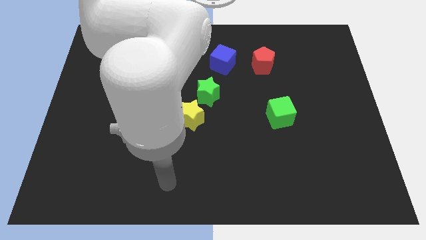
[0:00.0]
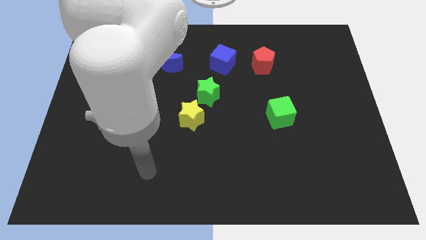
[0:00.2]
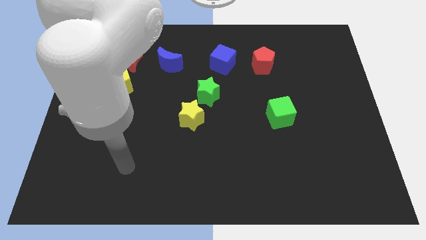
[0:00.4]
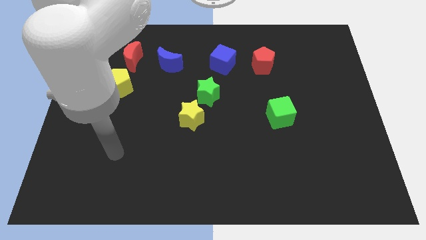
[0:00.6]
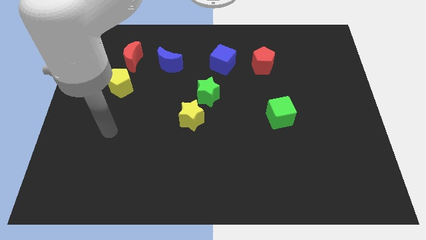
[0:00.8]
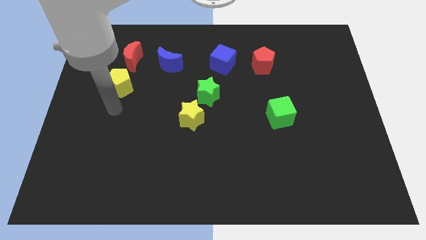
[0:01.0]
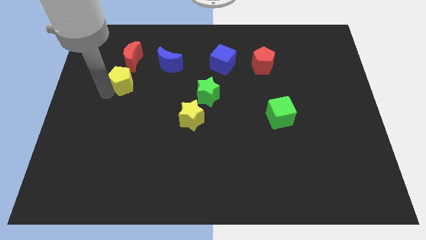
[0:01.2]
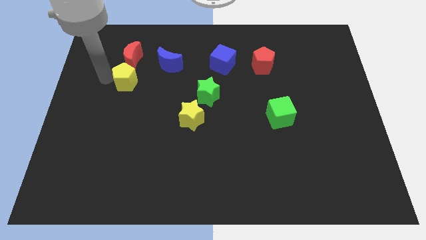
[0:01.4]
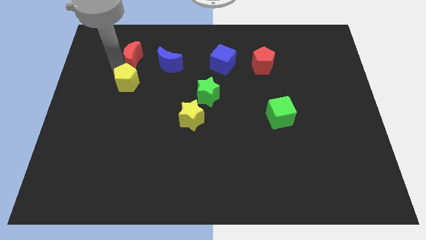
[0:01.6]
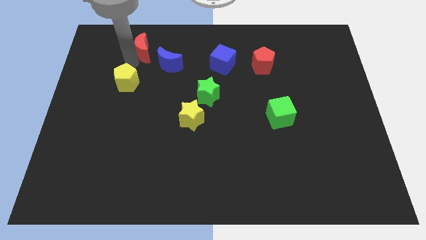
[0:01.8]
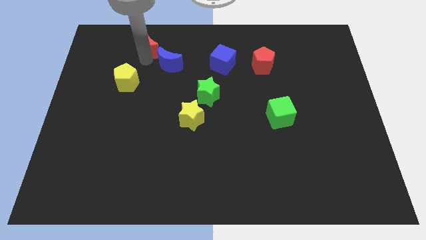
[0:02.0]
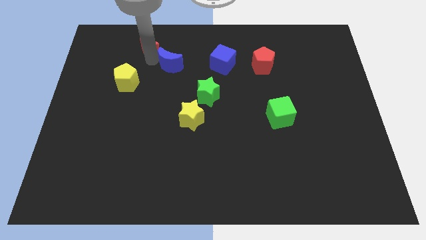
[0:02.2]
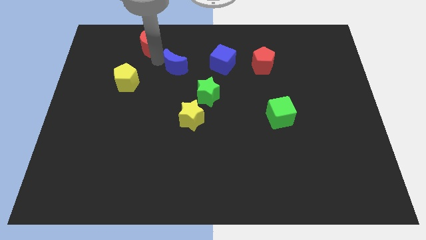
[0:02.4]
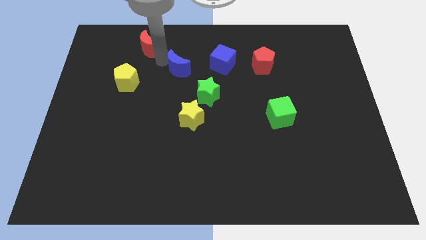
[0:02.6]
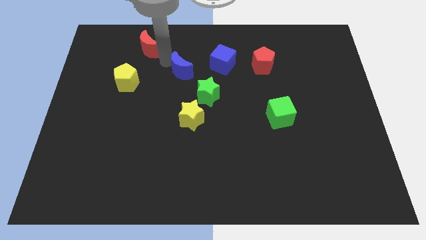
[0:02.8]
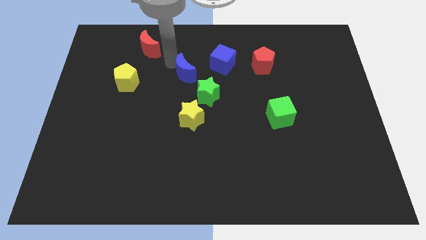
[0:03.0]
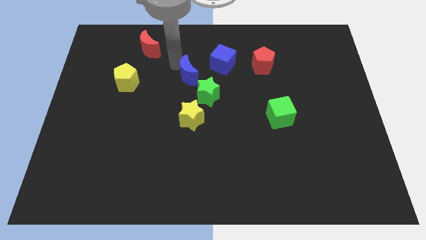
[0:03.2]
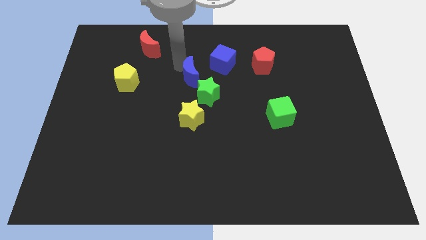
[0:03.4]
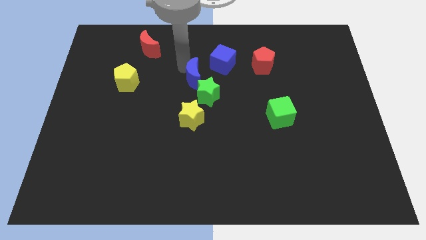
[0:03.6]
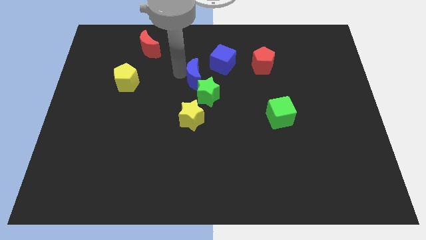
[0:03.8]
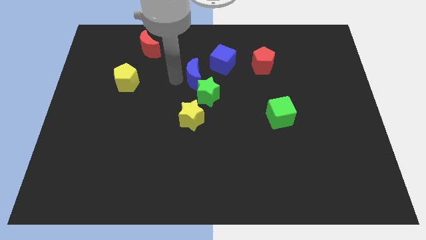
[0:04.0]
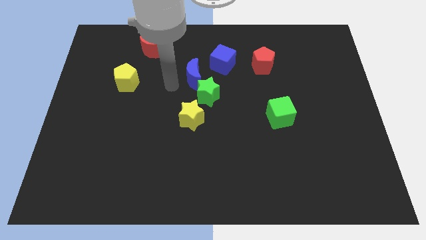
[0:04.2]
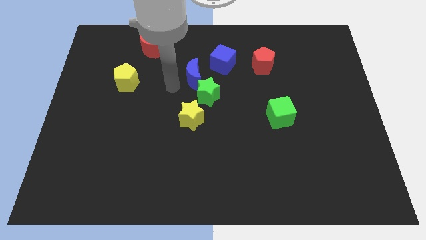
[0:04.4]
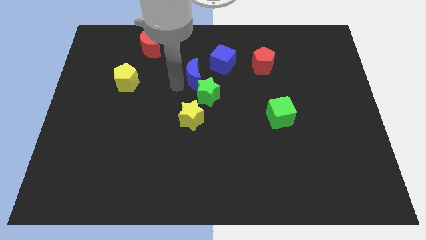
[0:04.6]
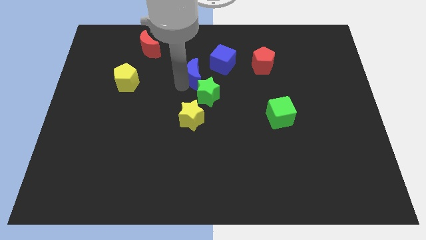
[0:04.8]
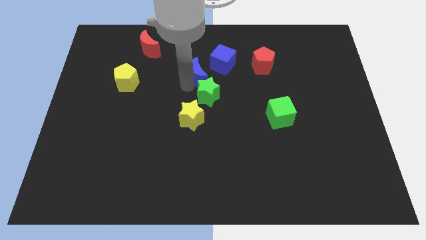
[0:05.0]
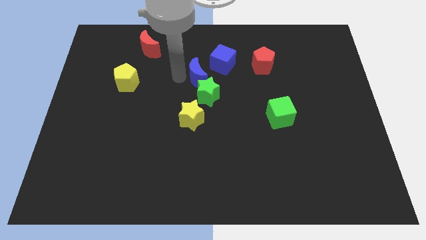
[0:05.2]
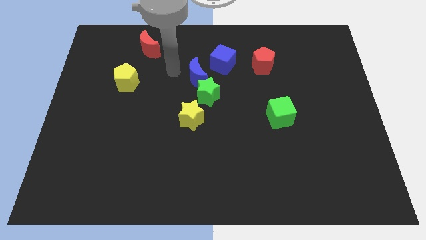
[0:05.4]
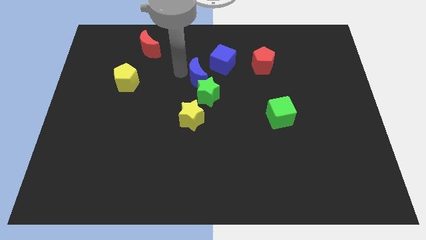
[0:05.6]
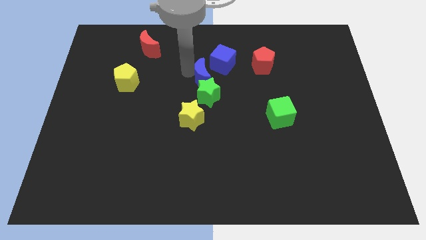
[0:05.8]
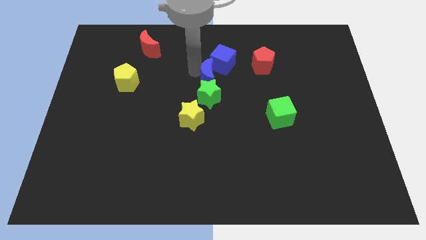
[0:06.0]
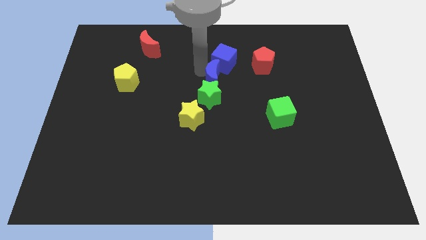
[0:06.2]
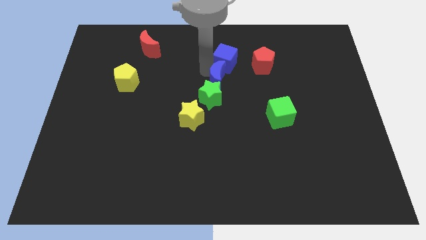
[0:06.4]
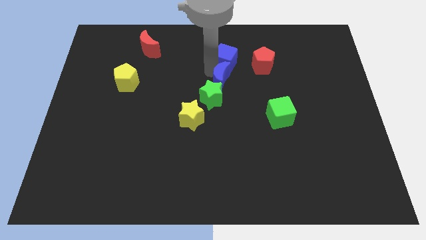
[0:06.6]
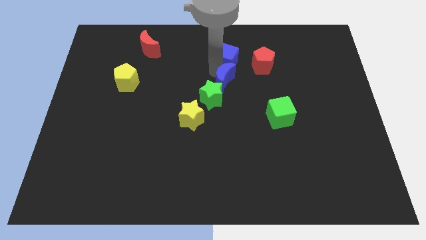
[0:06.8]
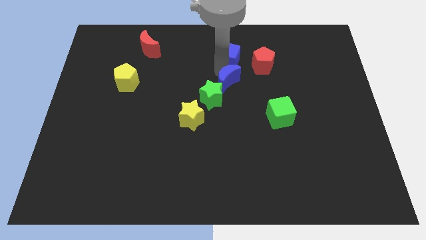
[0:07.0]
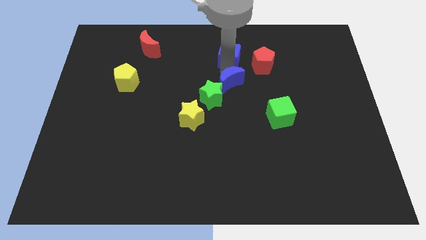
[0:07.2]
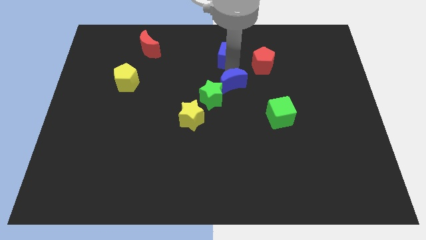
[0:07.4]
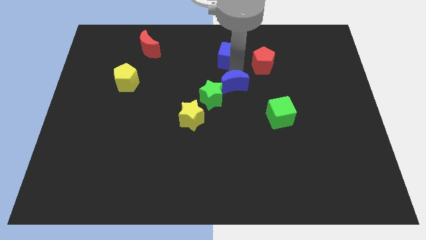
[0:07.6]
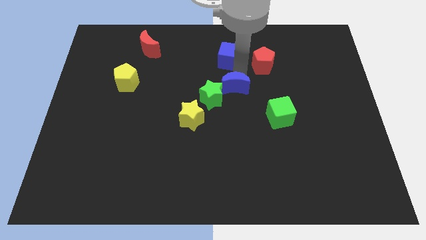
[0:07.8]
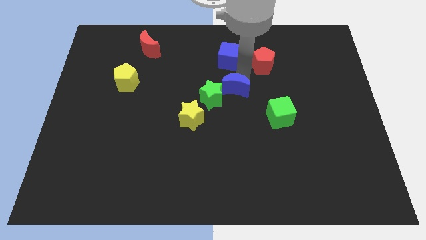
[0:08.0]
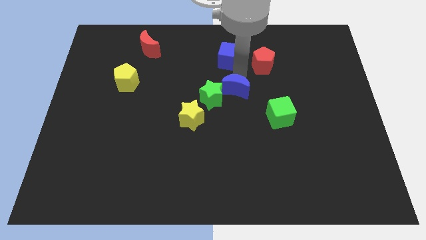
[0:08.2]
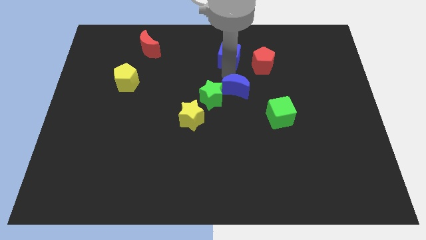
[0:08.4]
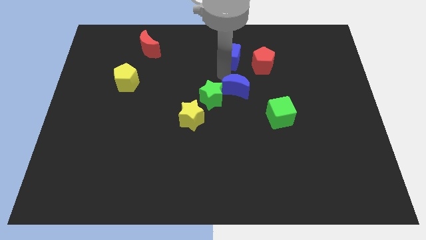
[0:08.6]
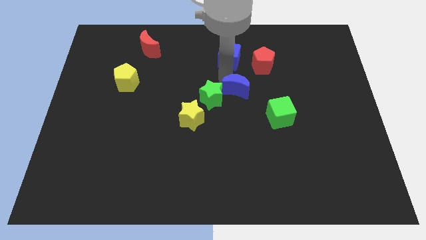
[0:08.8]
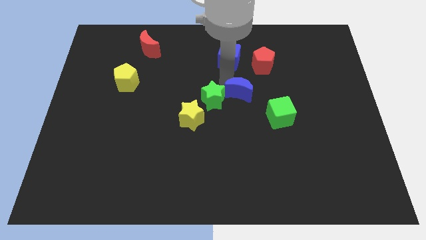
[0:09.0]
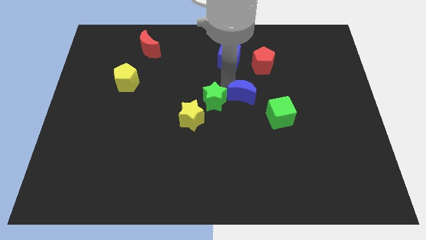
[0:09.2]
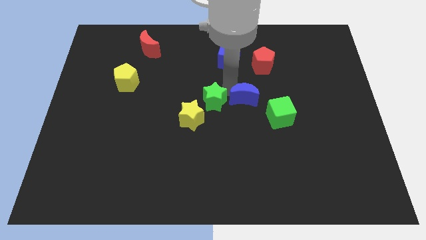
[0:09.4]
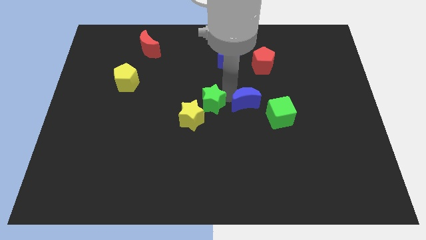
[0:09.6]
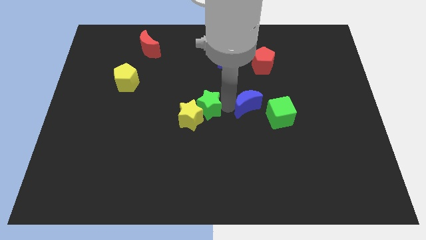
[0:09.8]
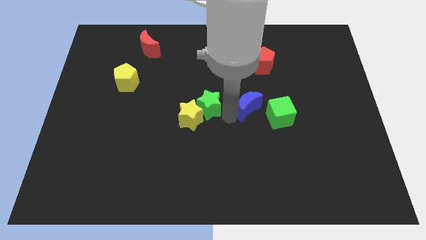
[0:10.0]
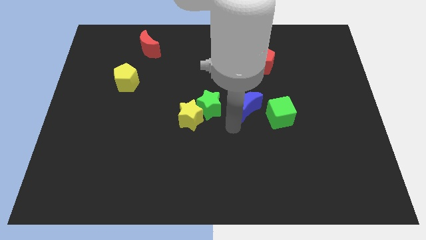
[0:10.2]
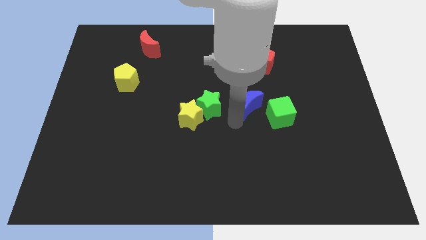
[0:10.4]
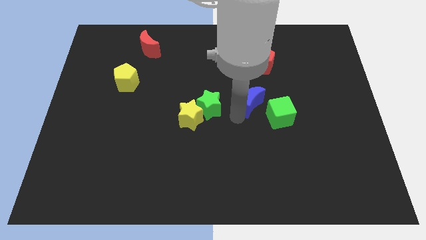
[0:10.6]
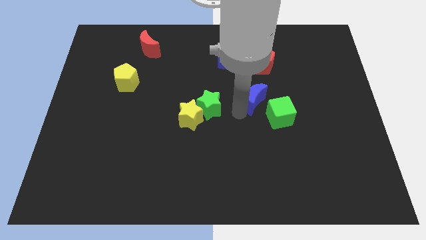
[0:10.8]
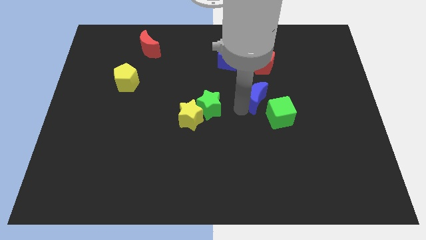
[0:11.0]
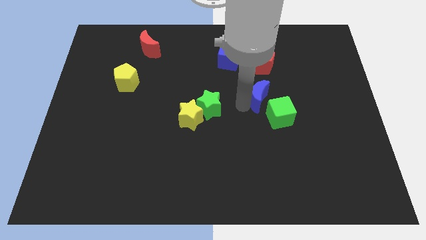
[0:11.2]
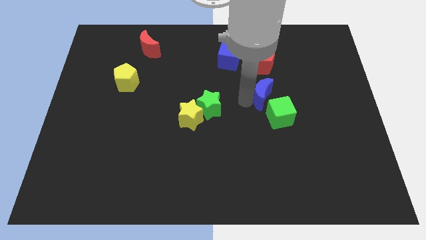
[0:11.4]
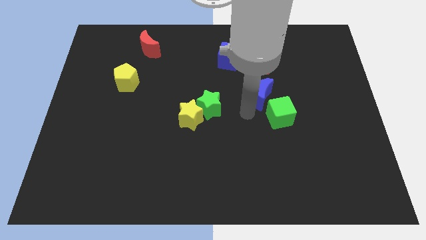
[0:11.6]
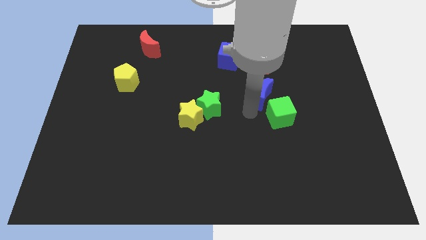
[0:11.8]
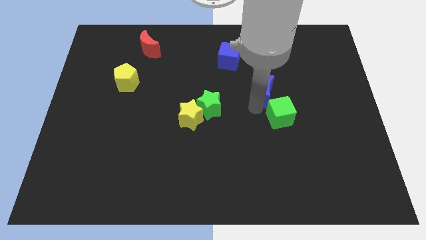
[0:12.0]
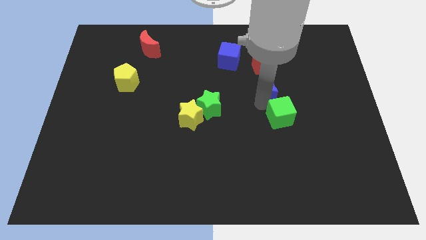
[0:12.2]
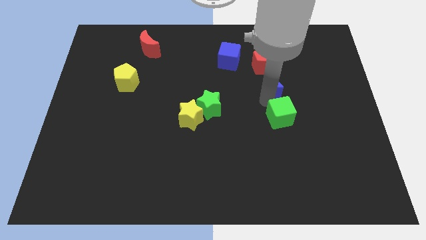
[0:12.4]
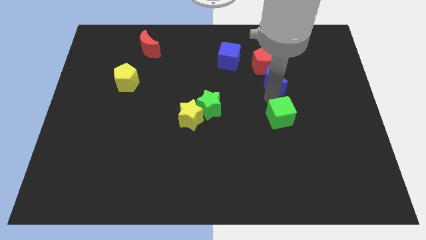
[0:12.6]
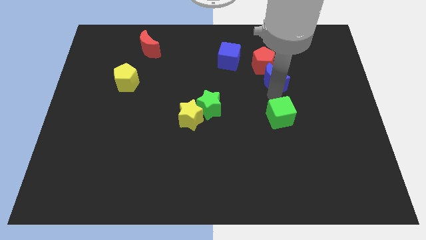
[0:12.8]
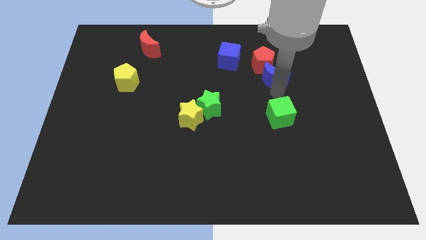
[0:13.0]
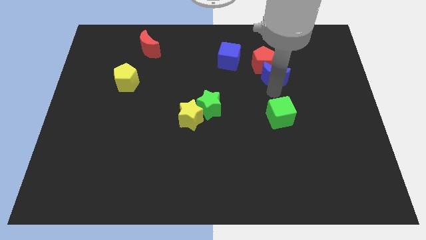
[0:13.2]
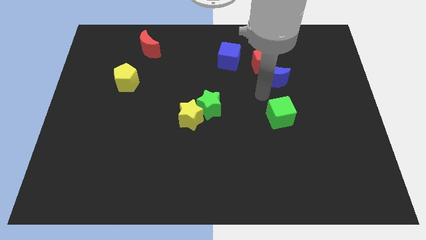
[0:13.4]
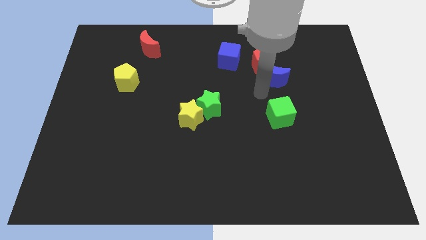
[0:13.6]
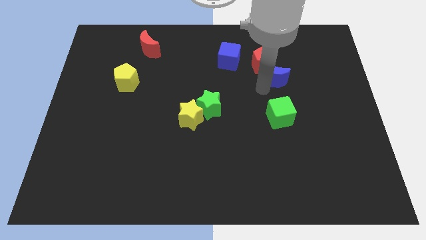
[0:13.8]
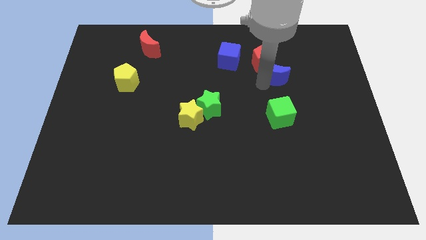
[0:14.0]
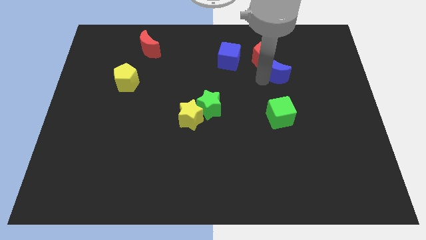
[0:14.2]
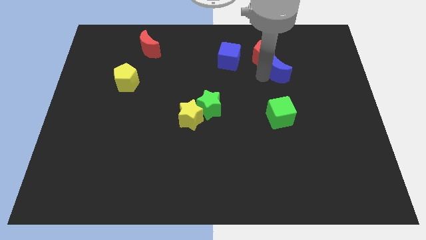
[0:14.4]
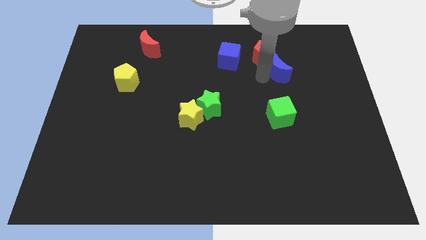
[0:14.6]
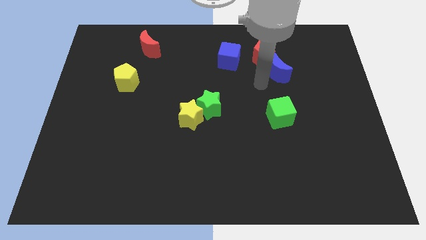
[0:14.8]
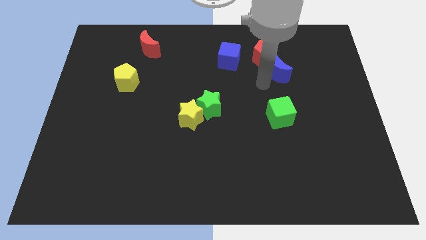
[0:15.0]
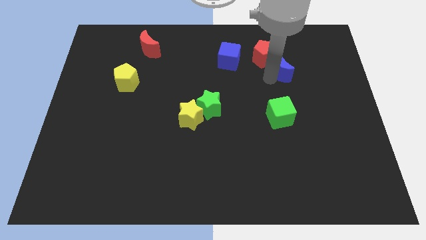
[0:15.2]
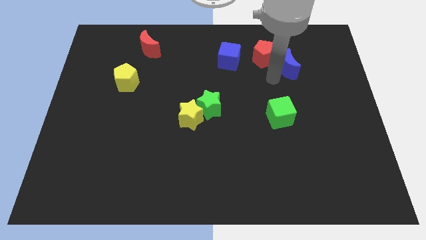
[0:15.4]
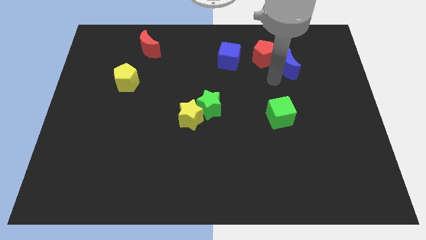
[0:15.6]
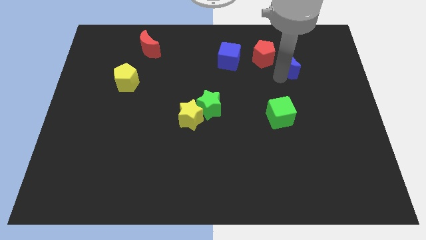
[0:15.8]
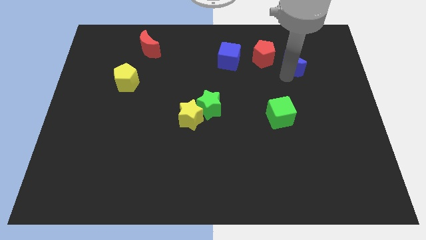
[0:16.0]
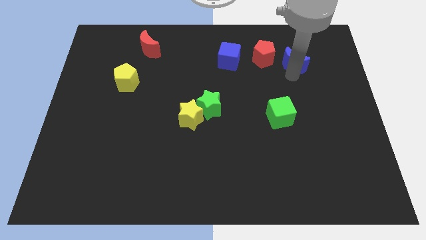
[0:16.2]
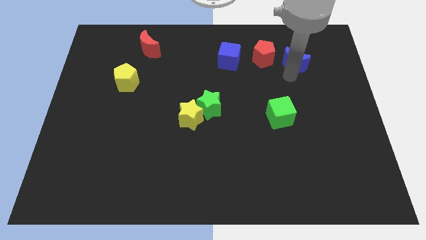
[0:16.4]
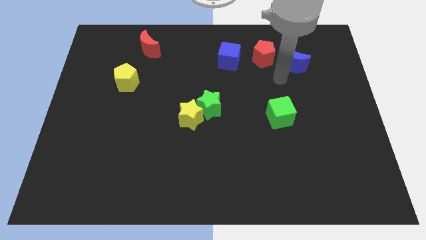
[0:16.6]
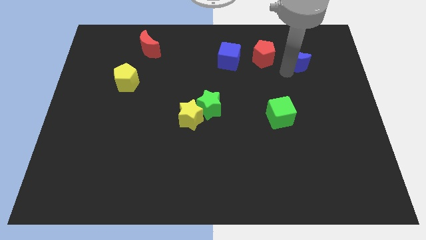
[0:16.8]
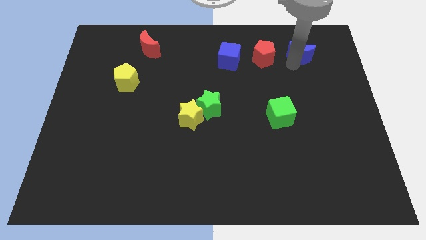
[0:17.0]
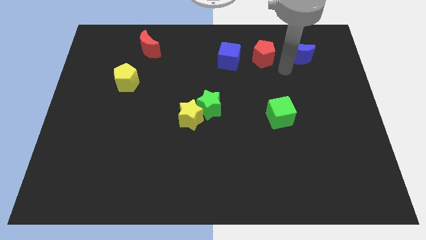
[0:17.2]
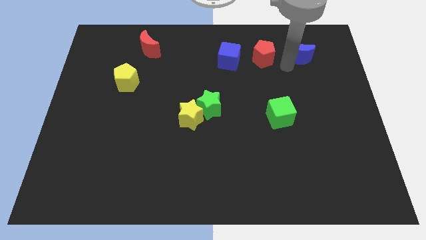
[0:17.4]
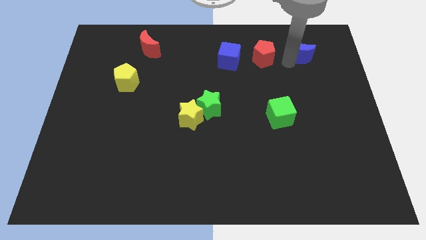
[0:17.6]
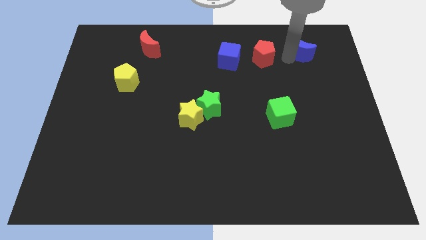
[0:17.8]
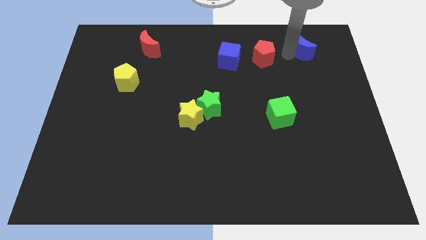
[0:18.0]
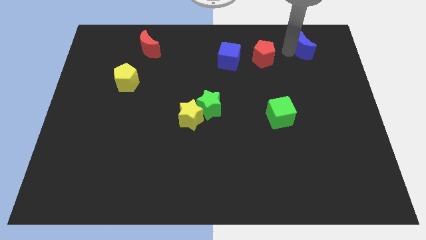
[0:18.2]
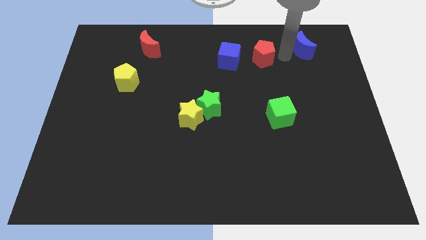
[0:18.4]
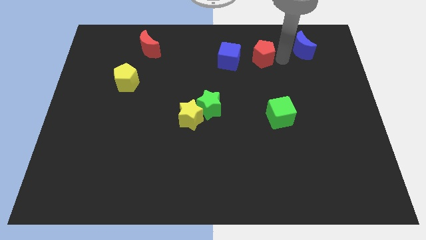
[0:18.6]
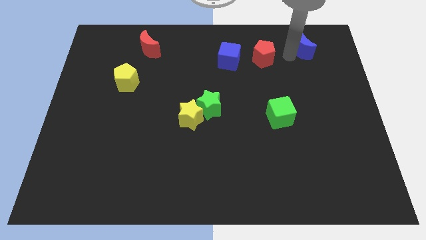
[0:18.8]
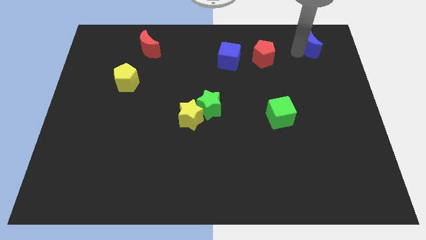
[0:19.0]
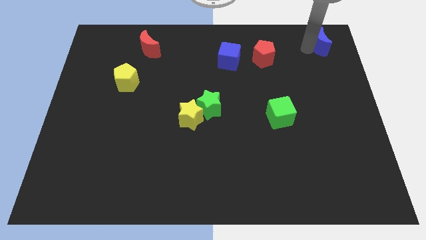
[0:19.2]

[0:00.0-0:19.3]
move the blue moon to the upper right corner
